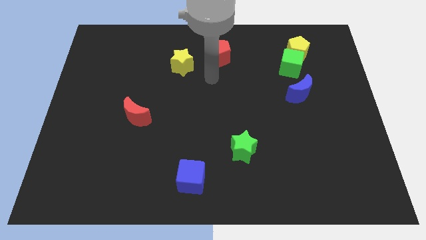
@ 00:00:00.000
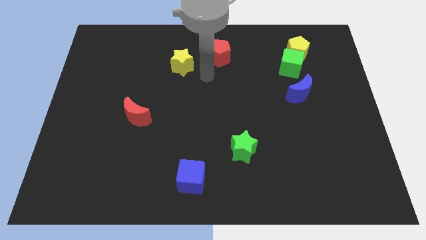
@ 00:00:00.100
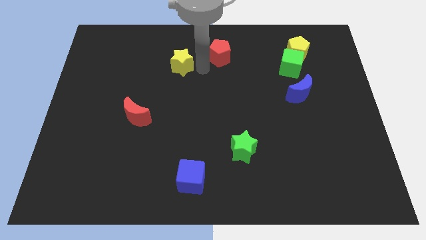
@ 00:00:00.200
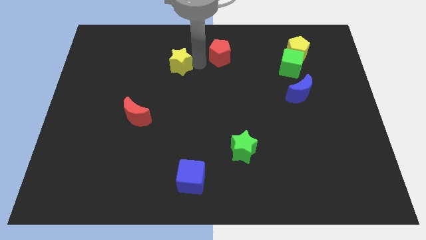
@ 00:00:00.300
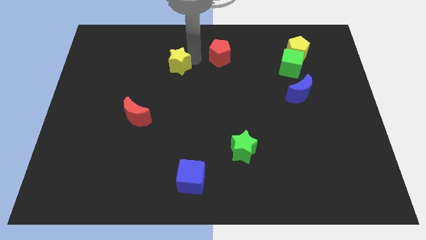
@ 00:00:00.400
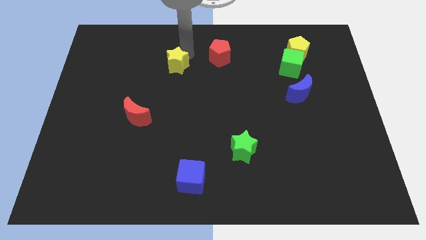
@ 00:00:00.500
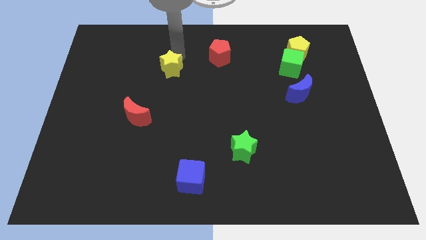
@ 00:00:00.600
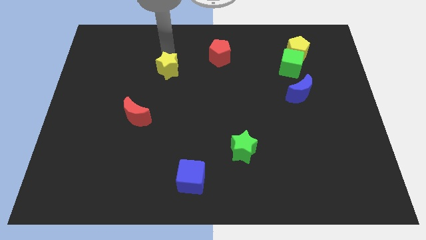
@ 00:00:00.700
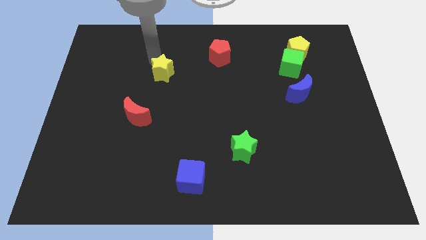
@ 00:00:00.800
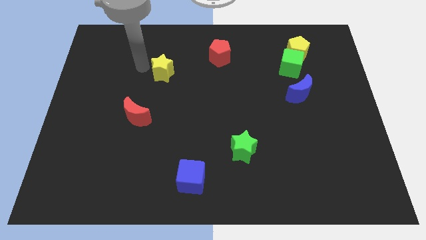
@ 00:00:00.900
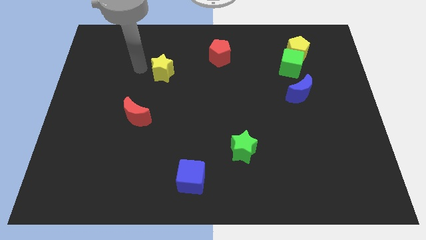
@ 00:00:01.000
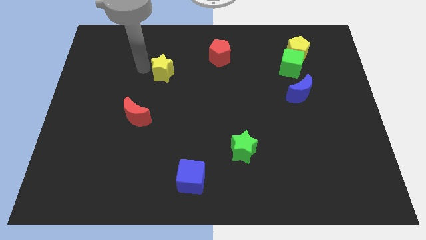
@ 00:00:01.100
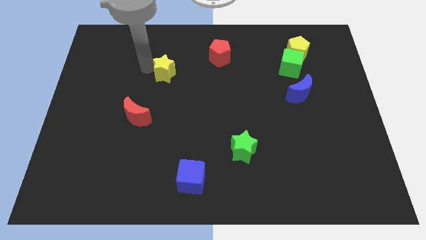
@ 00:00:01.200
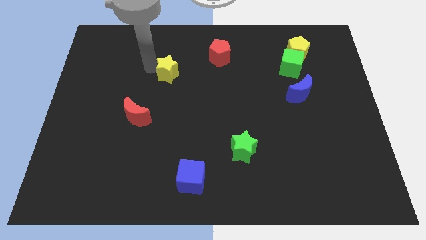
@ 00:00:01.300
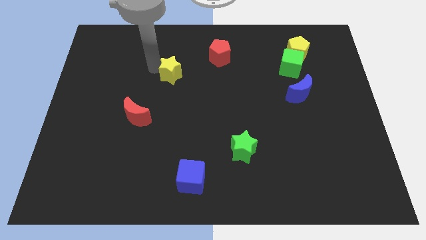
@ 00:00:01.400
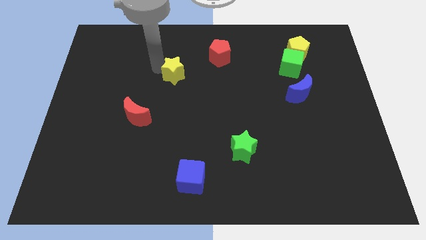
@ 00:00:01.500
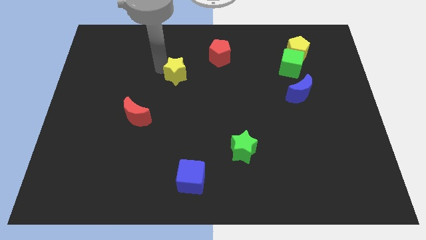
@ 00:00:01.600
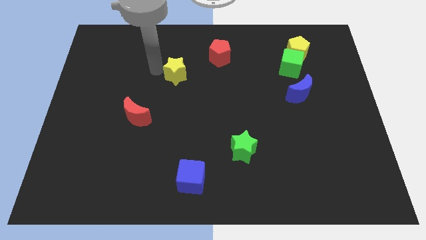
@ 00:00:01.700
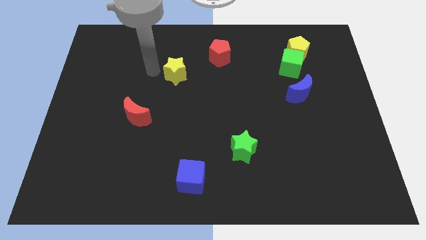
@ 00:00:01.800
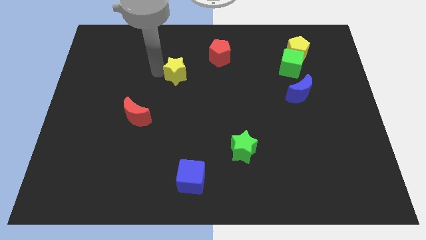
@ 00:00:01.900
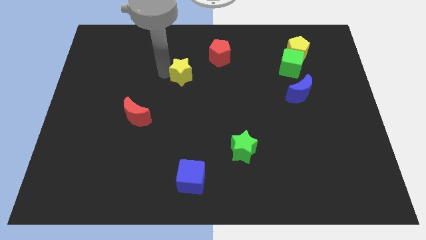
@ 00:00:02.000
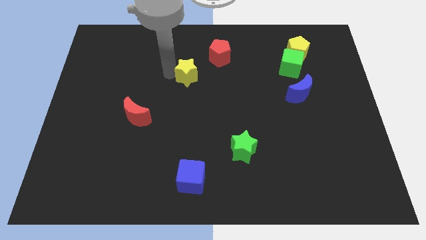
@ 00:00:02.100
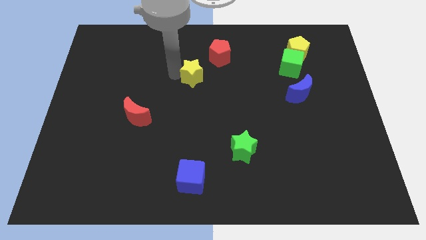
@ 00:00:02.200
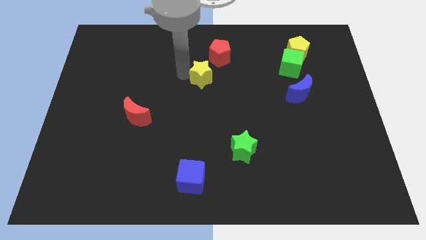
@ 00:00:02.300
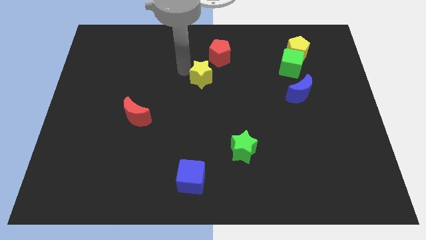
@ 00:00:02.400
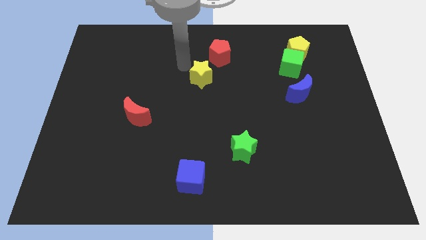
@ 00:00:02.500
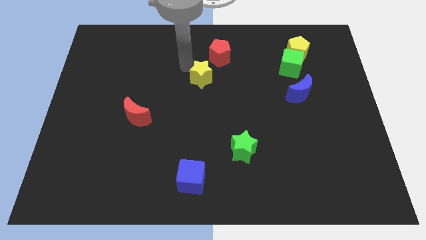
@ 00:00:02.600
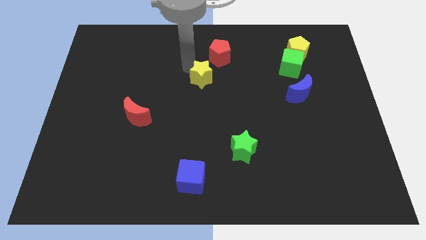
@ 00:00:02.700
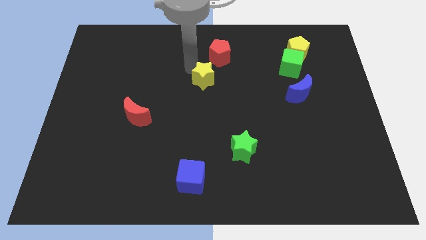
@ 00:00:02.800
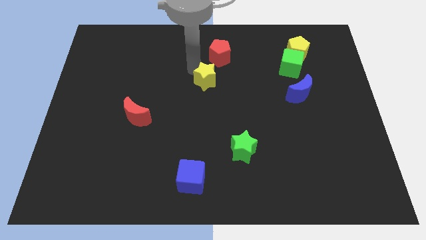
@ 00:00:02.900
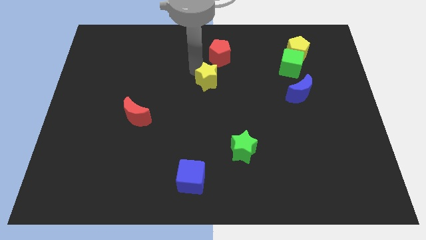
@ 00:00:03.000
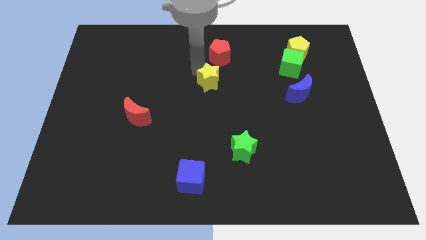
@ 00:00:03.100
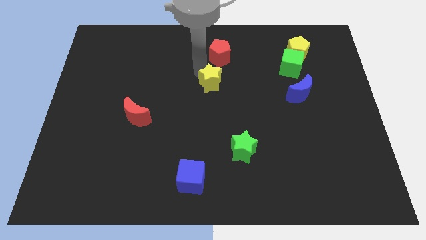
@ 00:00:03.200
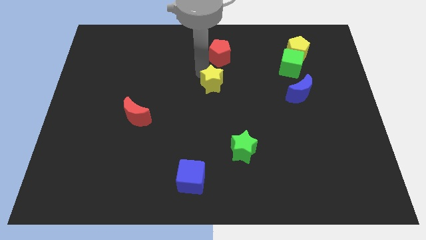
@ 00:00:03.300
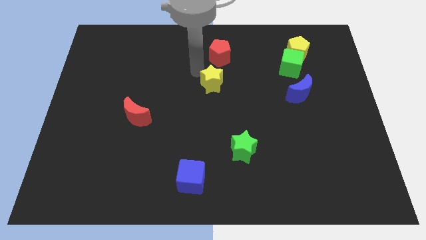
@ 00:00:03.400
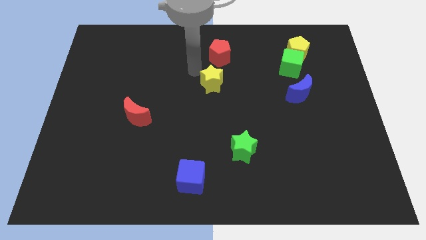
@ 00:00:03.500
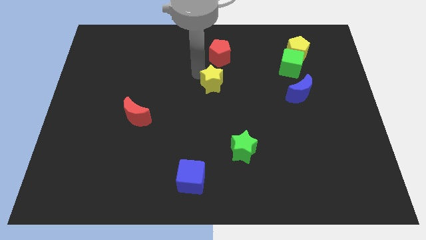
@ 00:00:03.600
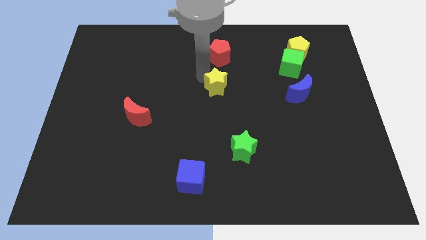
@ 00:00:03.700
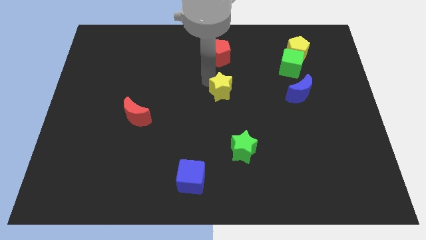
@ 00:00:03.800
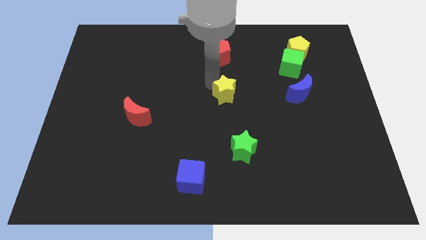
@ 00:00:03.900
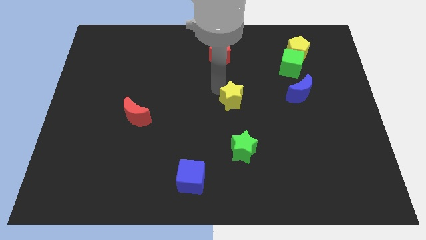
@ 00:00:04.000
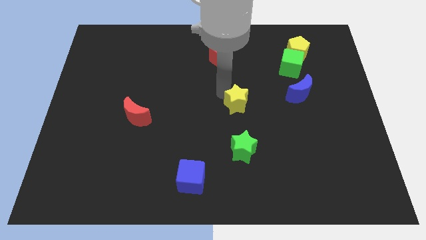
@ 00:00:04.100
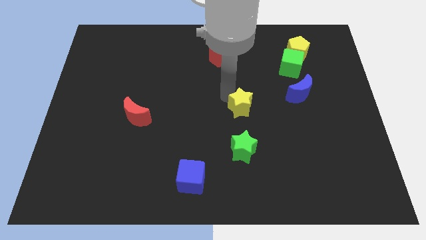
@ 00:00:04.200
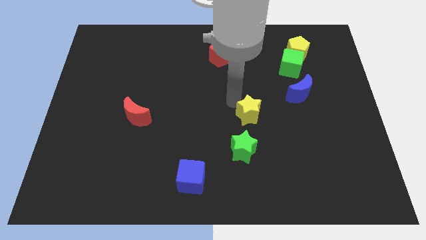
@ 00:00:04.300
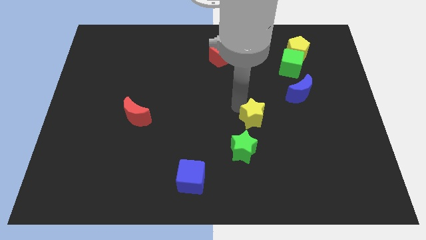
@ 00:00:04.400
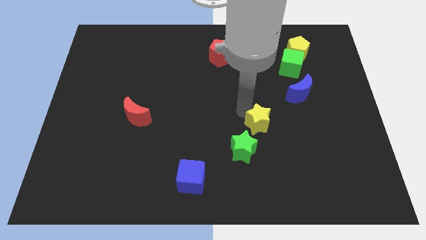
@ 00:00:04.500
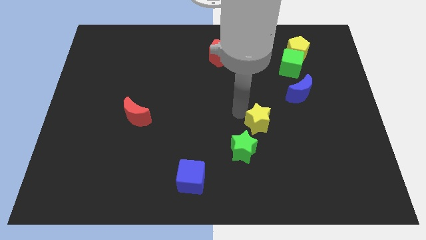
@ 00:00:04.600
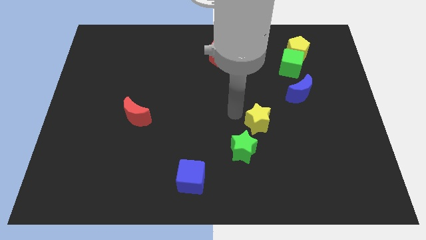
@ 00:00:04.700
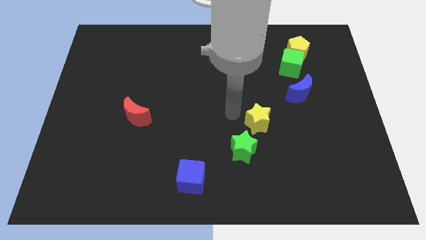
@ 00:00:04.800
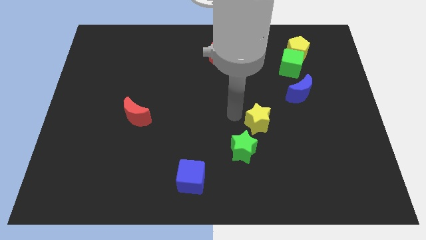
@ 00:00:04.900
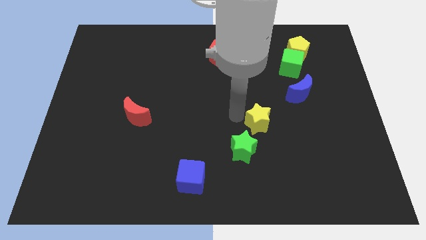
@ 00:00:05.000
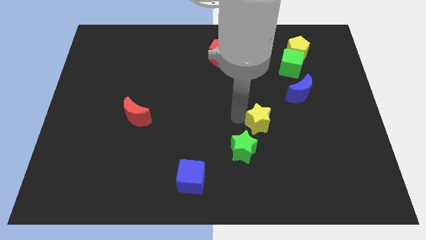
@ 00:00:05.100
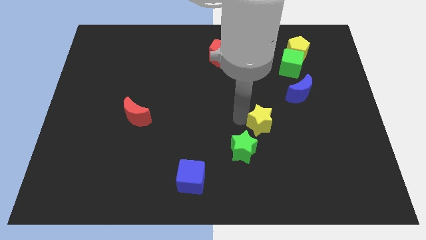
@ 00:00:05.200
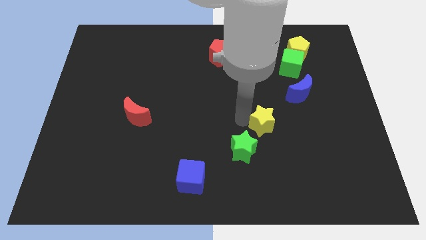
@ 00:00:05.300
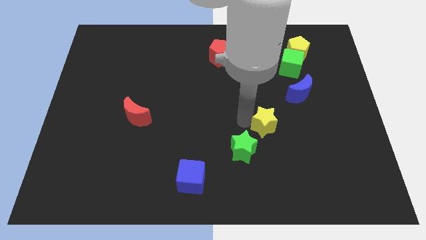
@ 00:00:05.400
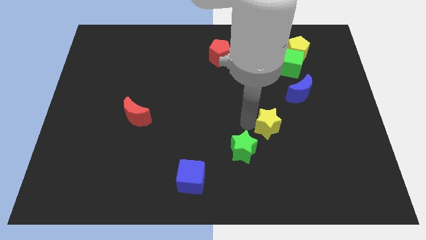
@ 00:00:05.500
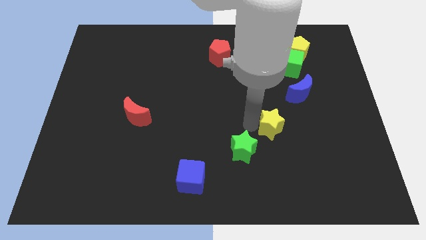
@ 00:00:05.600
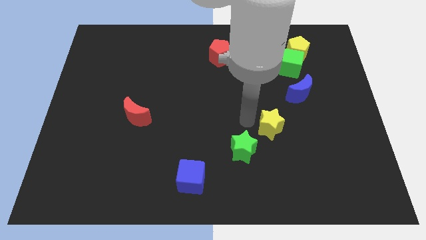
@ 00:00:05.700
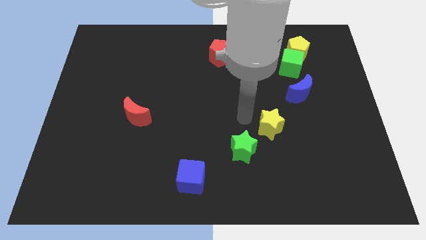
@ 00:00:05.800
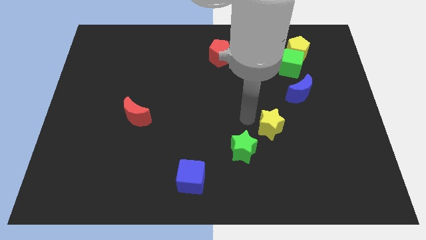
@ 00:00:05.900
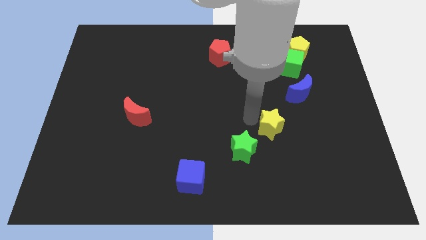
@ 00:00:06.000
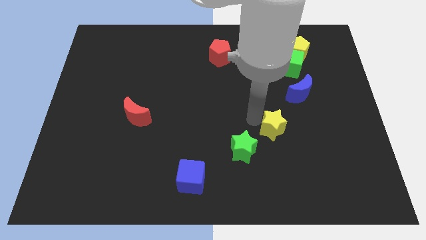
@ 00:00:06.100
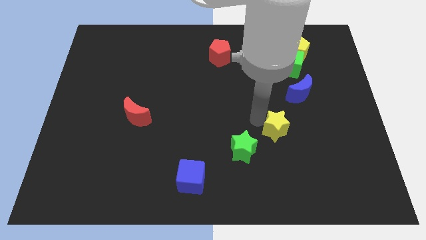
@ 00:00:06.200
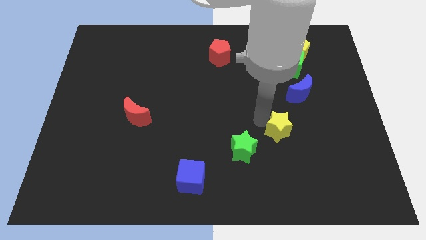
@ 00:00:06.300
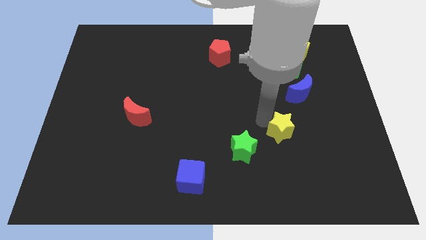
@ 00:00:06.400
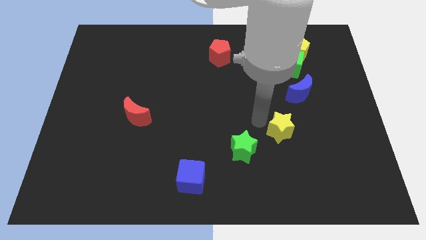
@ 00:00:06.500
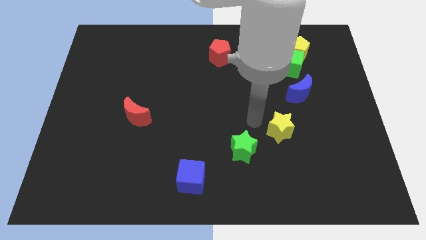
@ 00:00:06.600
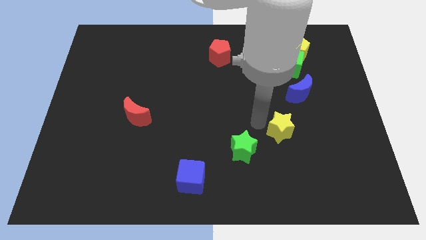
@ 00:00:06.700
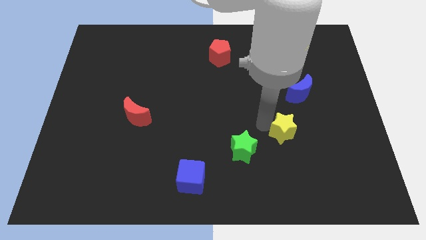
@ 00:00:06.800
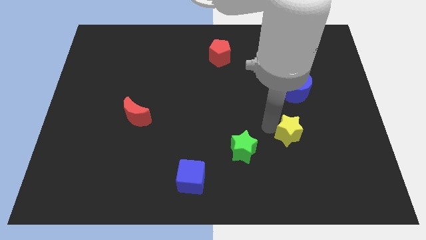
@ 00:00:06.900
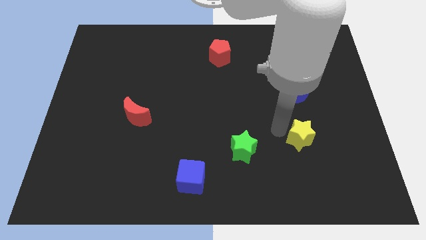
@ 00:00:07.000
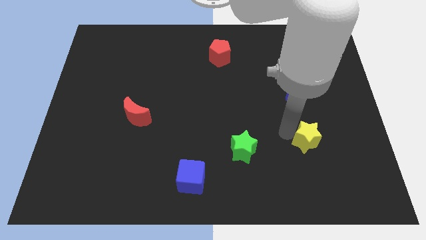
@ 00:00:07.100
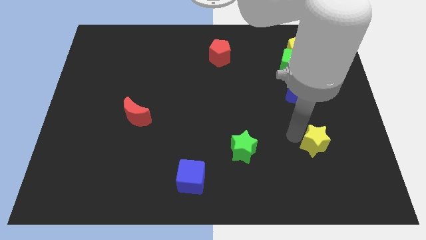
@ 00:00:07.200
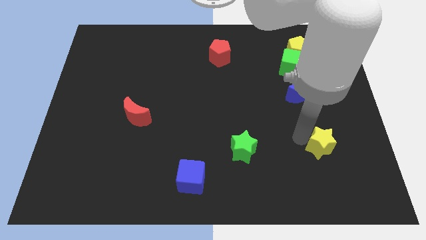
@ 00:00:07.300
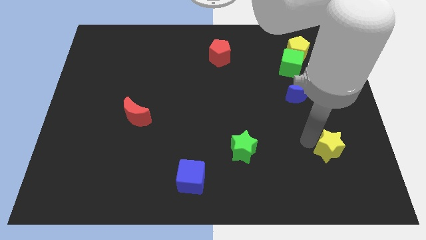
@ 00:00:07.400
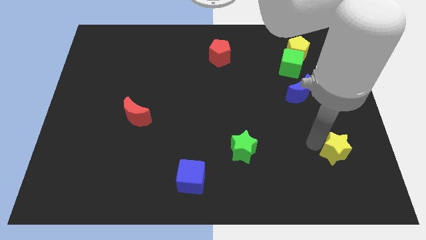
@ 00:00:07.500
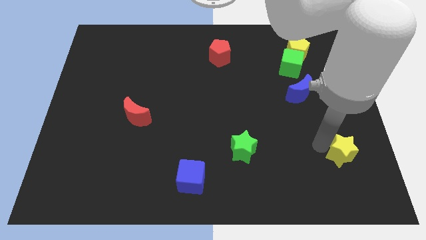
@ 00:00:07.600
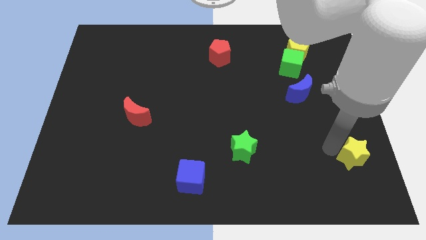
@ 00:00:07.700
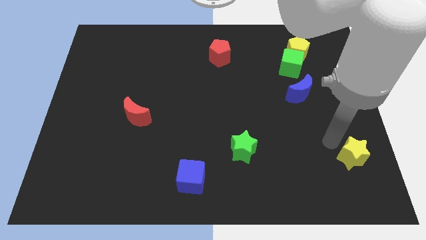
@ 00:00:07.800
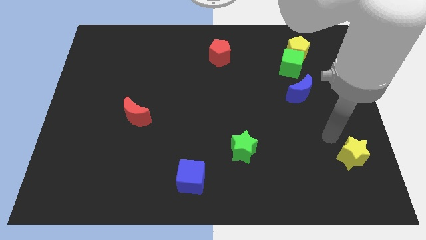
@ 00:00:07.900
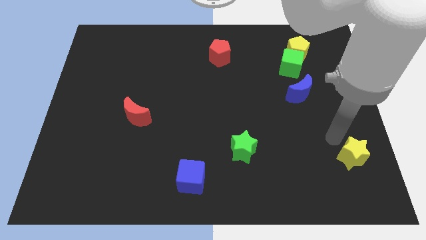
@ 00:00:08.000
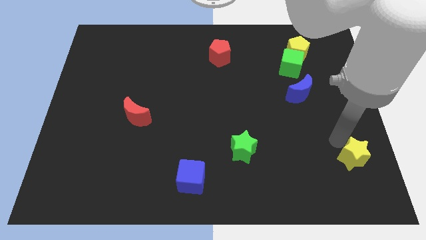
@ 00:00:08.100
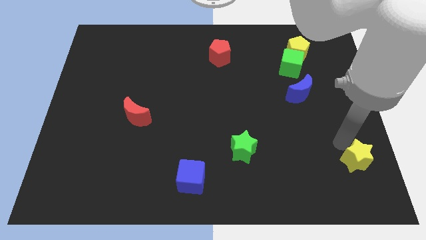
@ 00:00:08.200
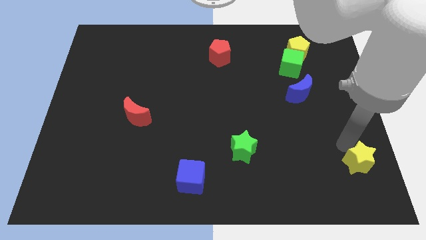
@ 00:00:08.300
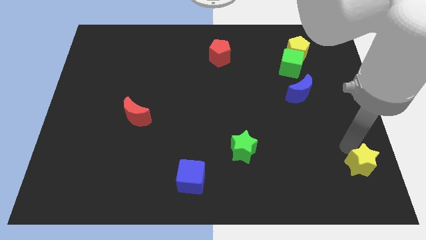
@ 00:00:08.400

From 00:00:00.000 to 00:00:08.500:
put the yellow star to the bottom right of the board
